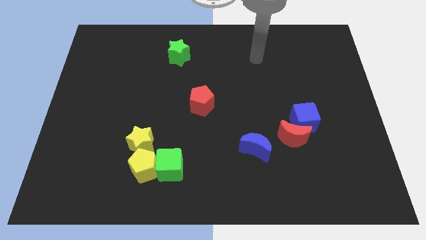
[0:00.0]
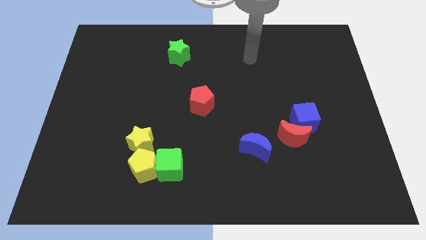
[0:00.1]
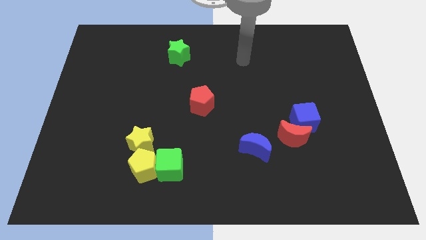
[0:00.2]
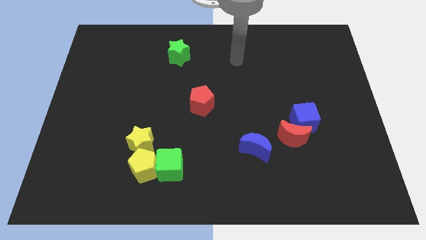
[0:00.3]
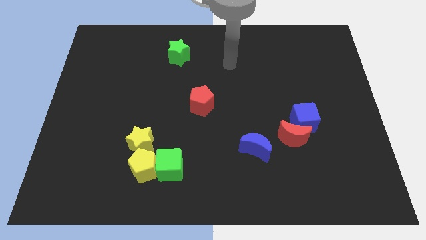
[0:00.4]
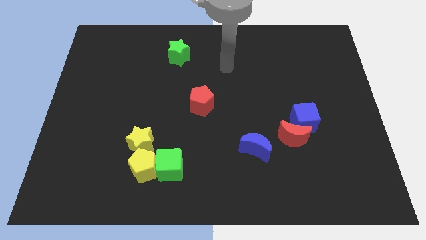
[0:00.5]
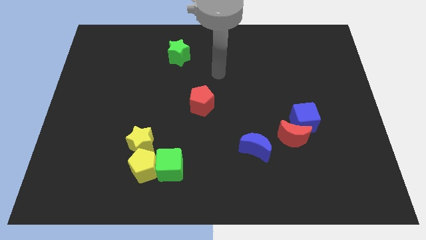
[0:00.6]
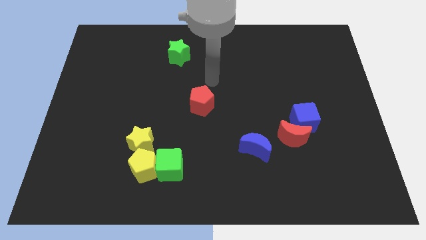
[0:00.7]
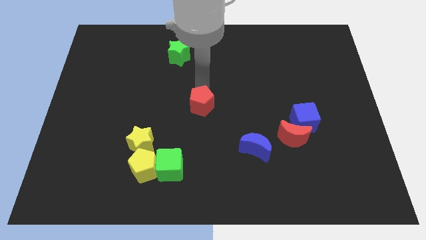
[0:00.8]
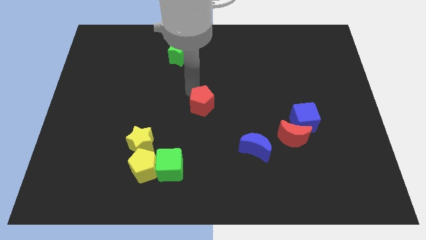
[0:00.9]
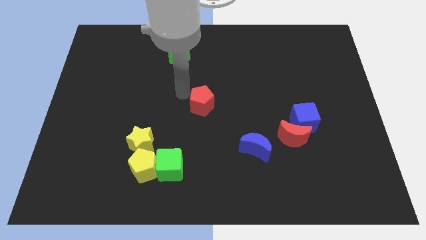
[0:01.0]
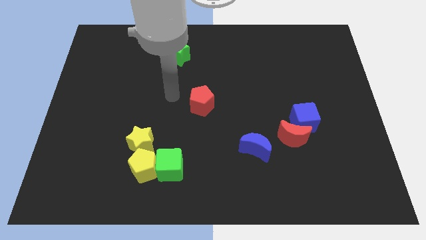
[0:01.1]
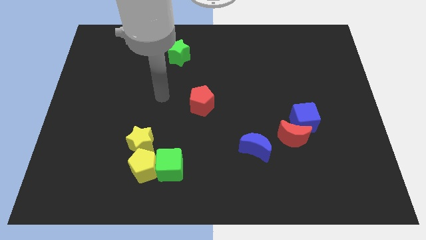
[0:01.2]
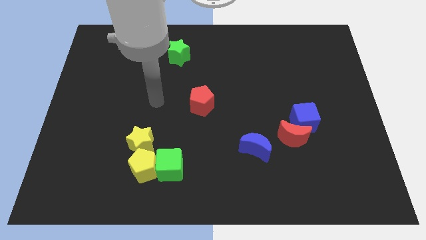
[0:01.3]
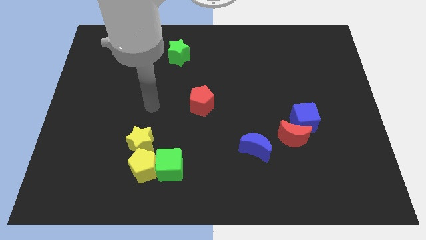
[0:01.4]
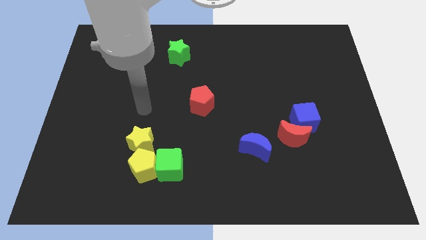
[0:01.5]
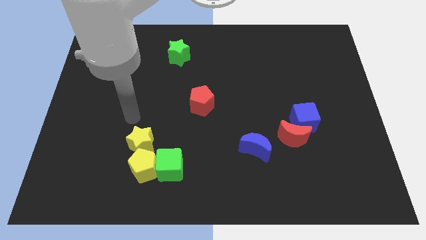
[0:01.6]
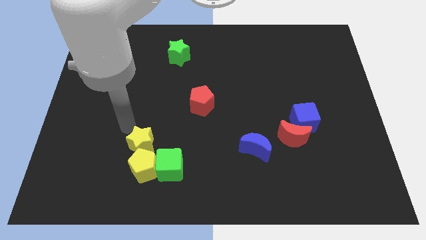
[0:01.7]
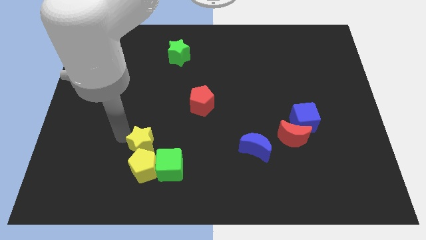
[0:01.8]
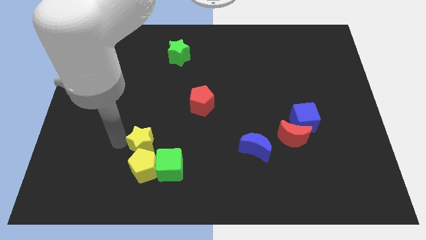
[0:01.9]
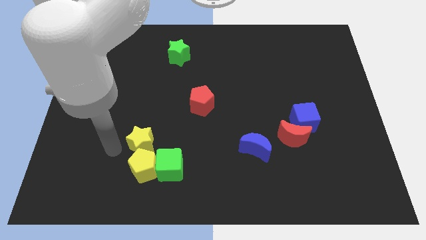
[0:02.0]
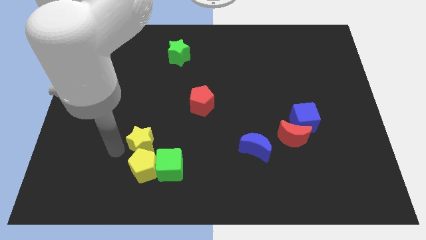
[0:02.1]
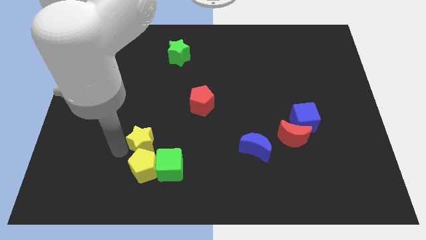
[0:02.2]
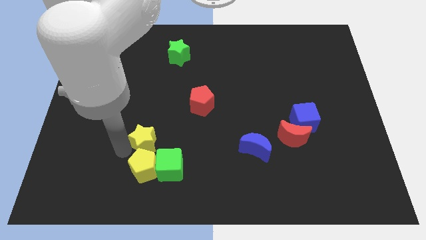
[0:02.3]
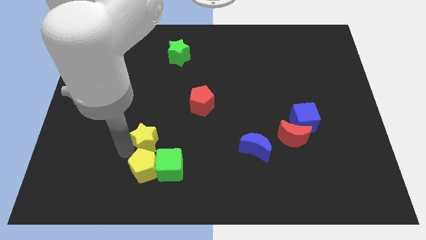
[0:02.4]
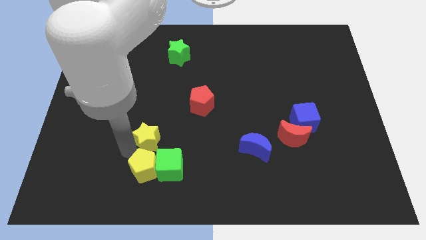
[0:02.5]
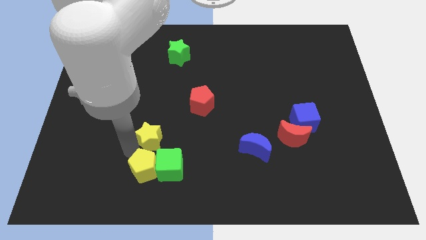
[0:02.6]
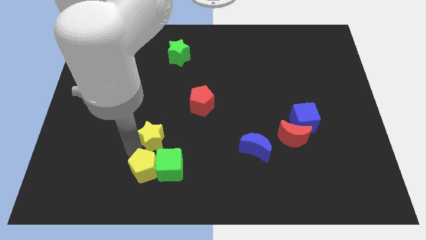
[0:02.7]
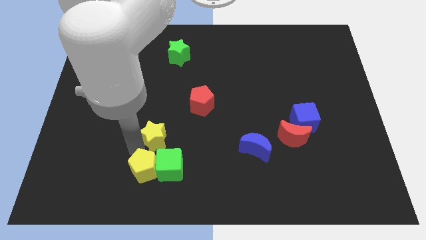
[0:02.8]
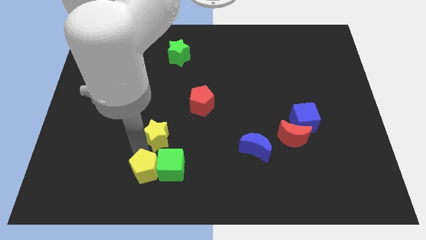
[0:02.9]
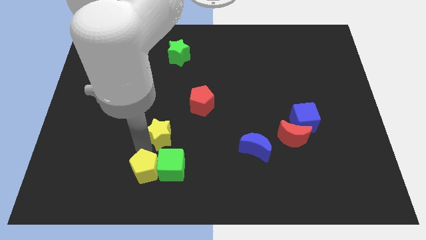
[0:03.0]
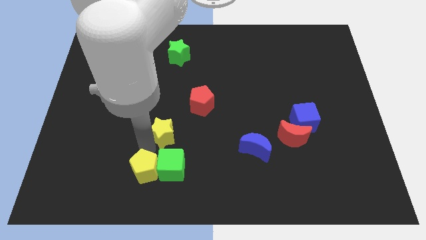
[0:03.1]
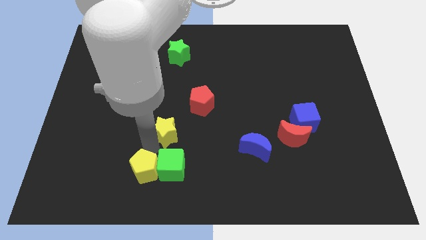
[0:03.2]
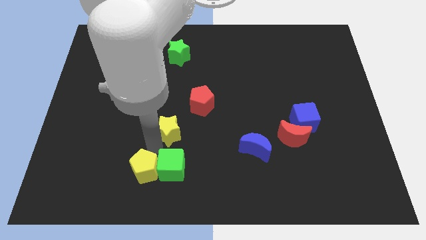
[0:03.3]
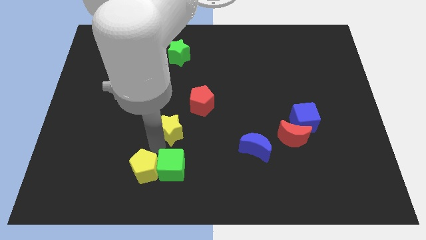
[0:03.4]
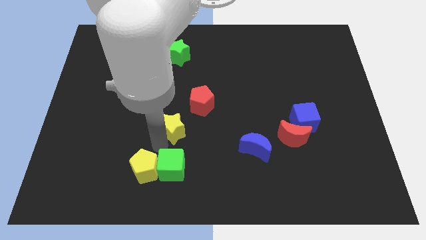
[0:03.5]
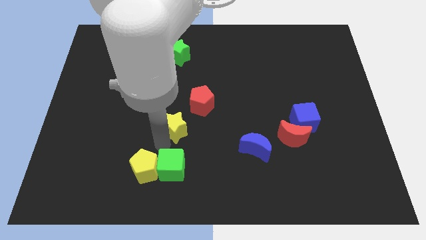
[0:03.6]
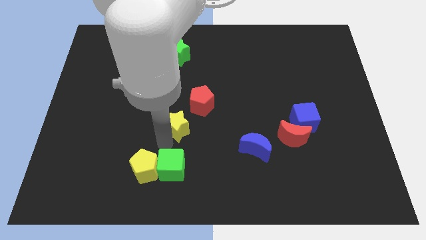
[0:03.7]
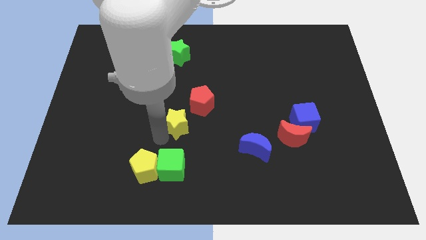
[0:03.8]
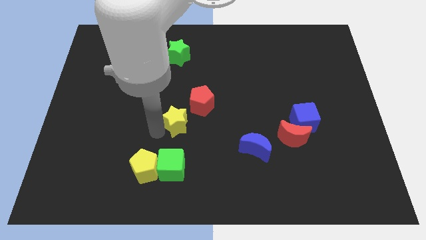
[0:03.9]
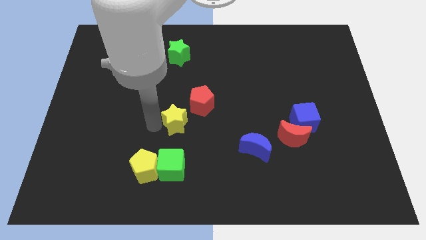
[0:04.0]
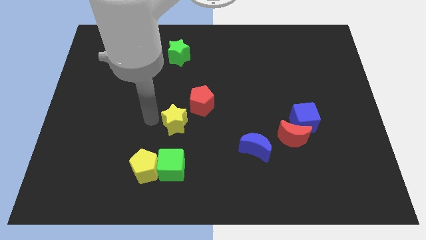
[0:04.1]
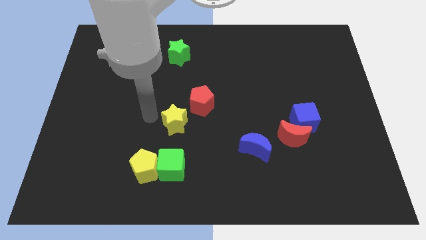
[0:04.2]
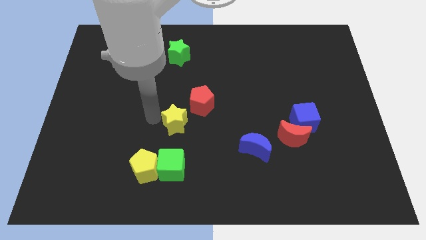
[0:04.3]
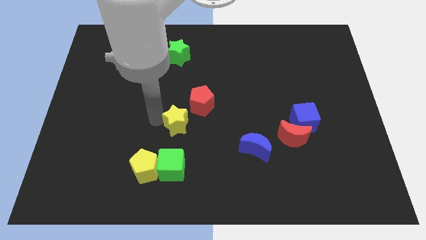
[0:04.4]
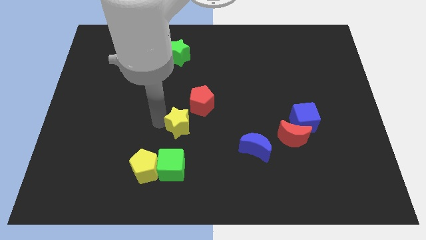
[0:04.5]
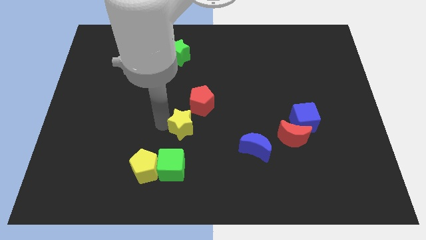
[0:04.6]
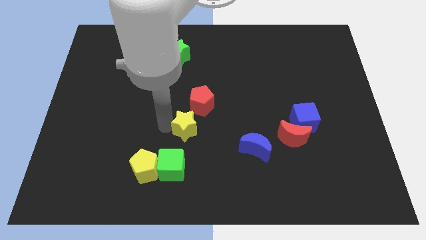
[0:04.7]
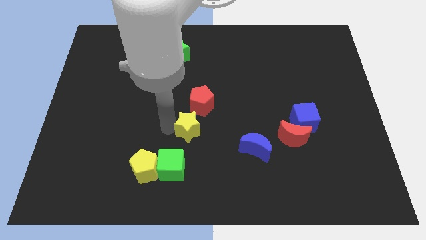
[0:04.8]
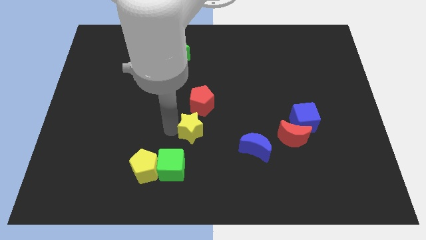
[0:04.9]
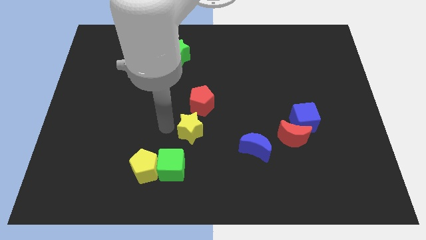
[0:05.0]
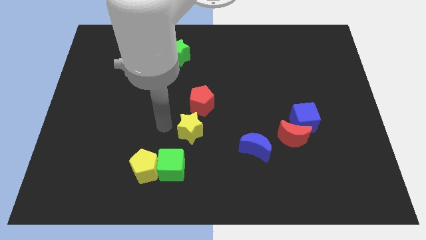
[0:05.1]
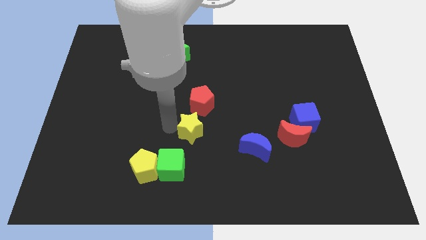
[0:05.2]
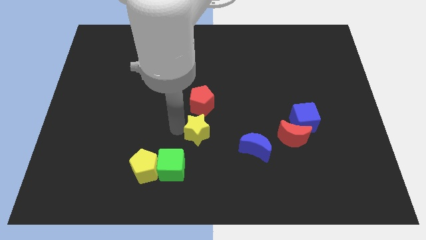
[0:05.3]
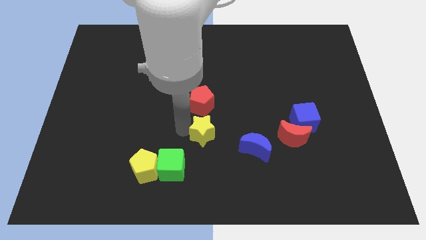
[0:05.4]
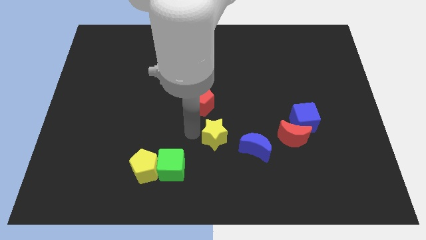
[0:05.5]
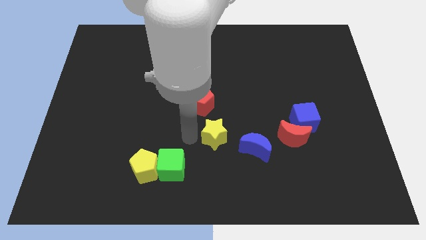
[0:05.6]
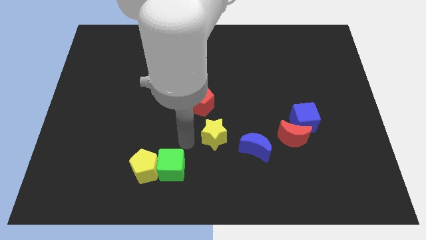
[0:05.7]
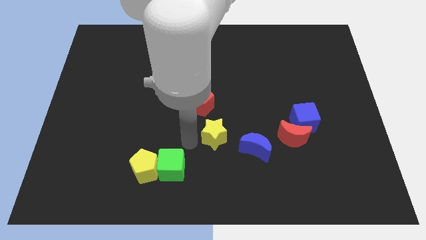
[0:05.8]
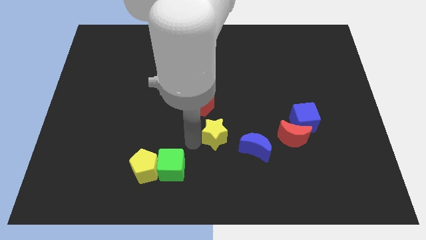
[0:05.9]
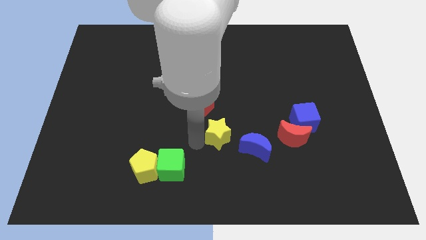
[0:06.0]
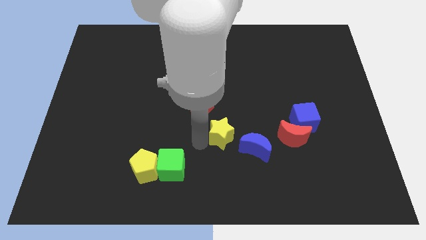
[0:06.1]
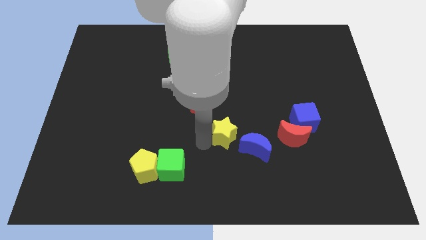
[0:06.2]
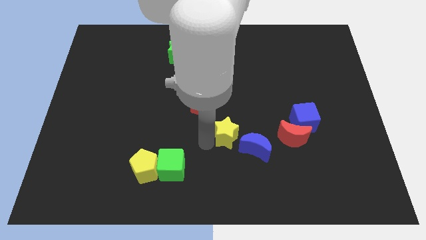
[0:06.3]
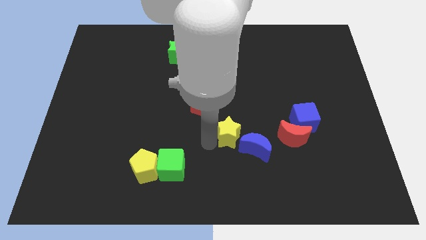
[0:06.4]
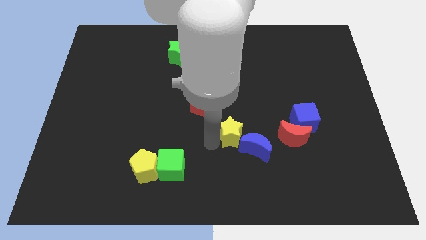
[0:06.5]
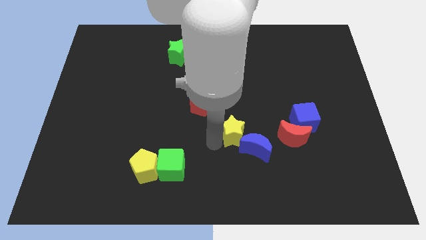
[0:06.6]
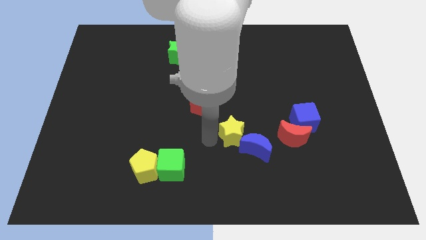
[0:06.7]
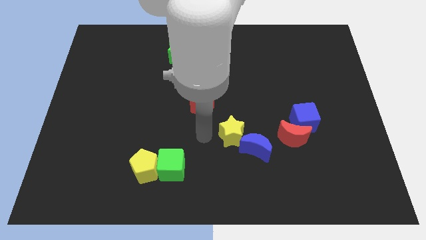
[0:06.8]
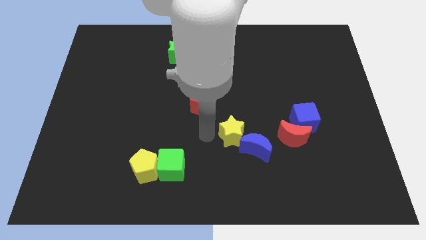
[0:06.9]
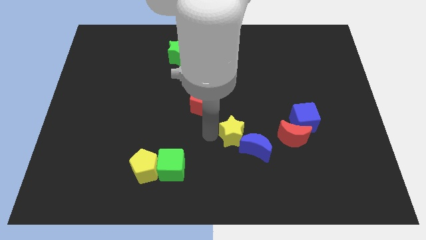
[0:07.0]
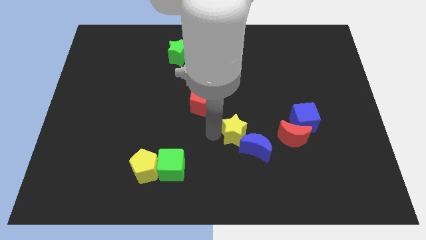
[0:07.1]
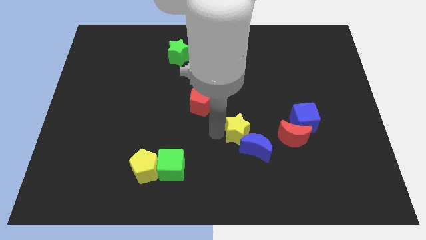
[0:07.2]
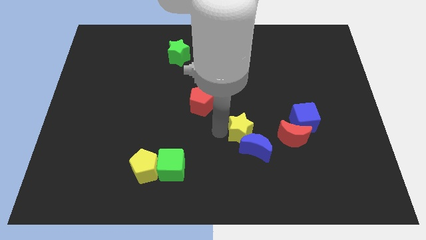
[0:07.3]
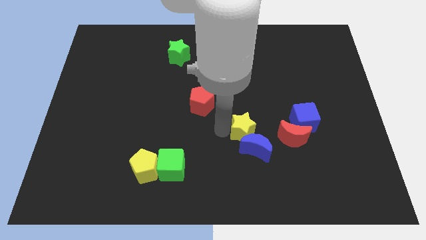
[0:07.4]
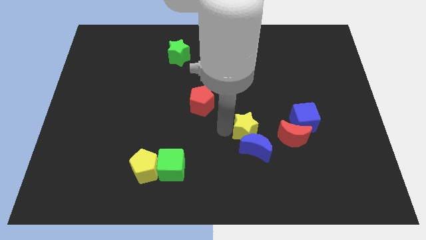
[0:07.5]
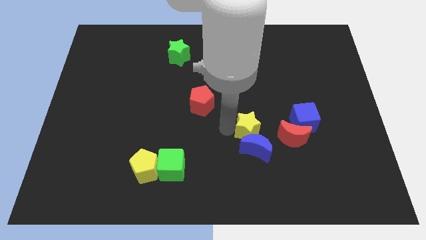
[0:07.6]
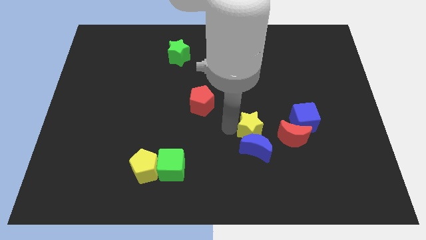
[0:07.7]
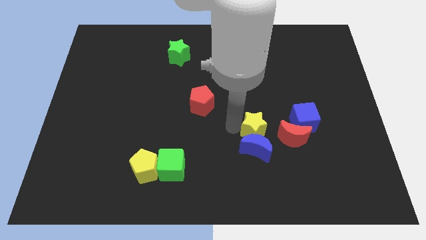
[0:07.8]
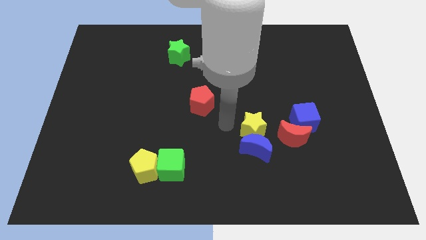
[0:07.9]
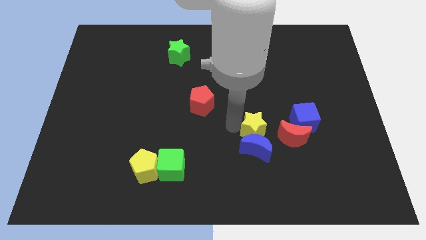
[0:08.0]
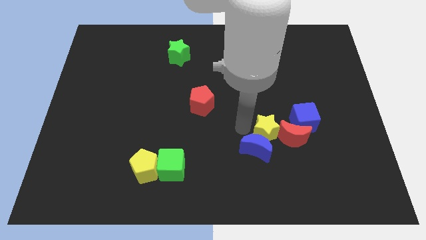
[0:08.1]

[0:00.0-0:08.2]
push the yellow star close to the red moon
